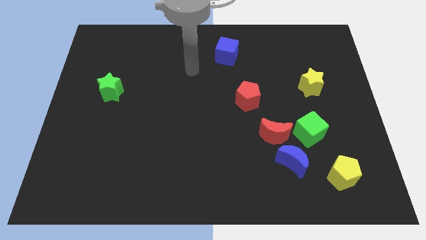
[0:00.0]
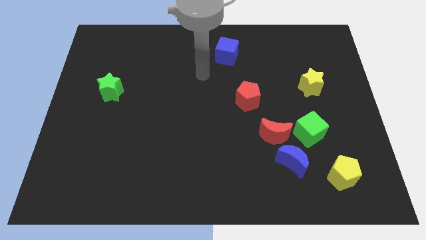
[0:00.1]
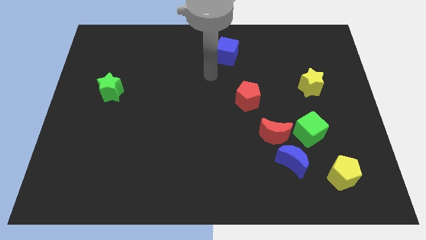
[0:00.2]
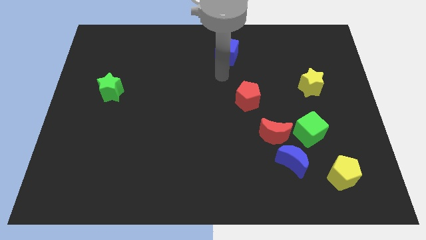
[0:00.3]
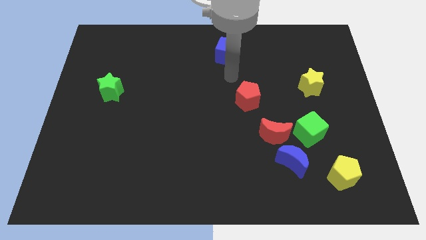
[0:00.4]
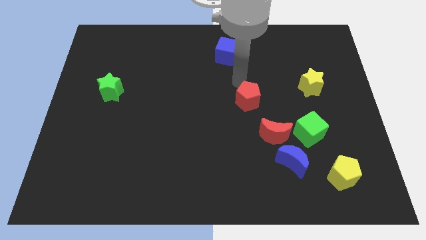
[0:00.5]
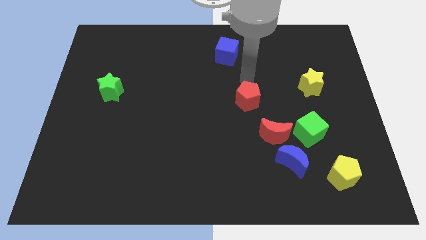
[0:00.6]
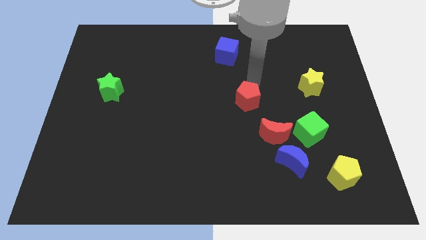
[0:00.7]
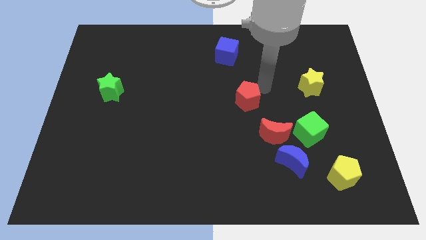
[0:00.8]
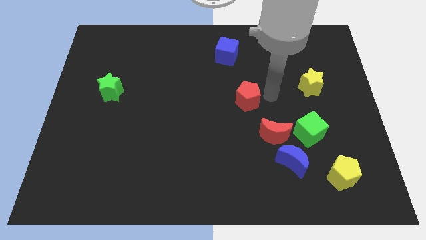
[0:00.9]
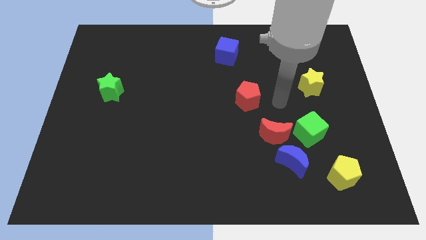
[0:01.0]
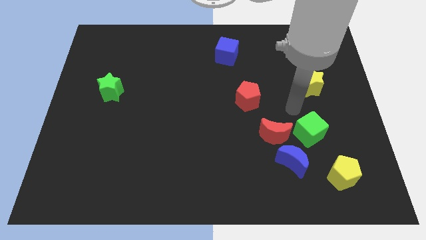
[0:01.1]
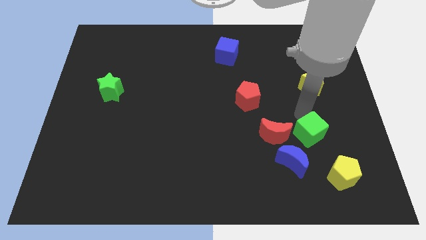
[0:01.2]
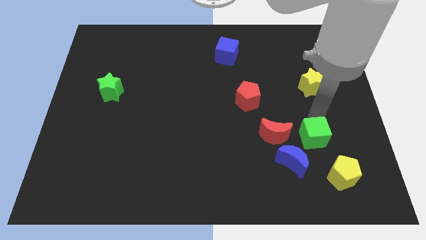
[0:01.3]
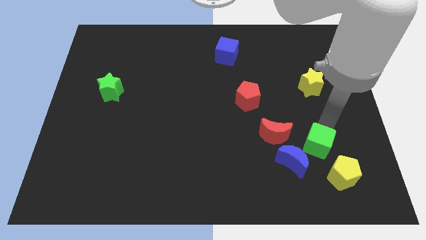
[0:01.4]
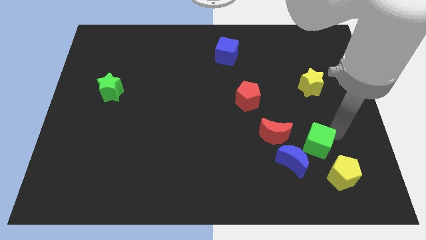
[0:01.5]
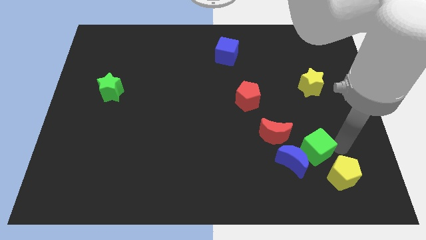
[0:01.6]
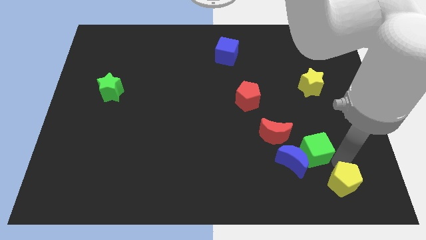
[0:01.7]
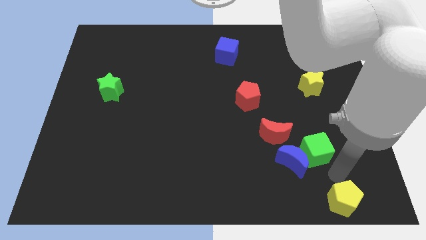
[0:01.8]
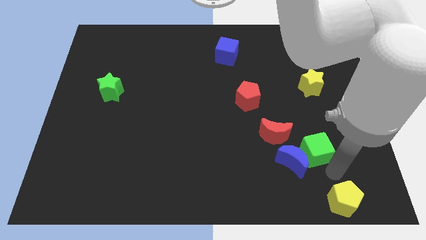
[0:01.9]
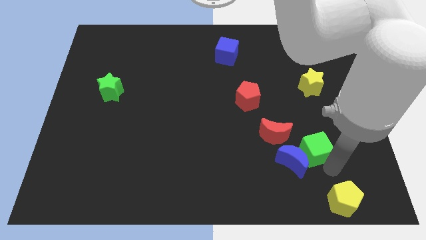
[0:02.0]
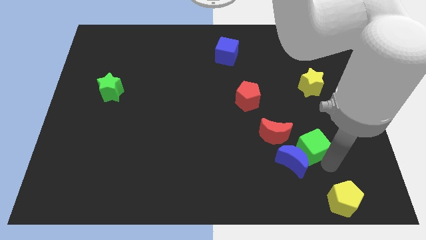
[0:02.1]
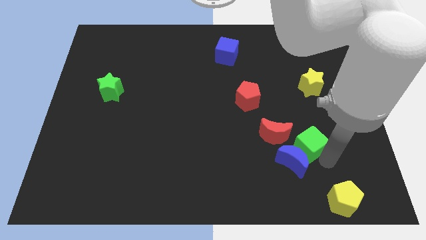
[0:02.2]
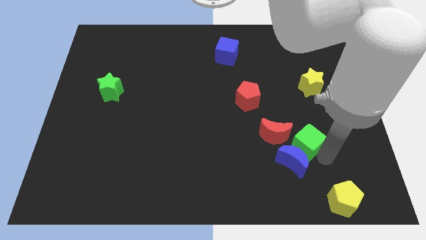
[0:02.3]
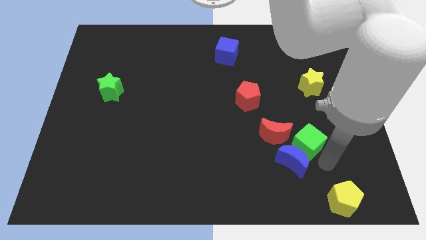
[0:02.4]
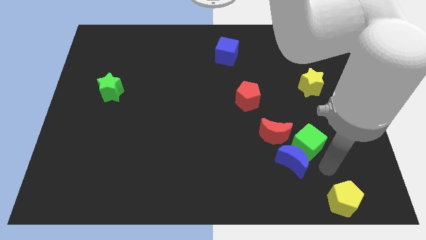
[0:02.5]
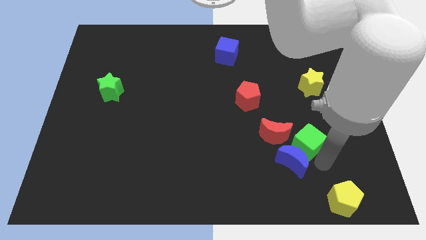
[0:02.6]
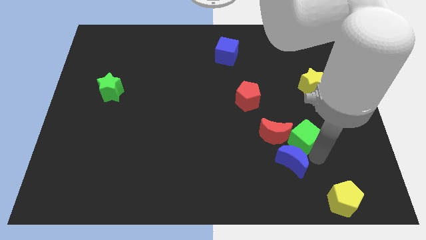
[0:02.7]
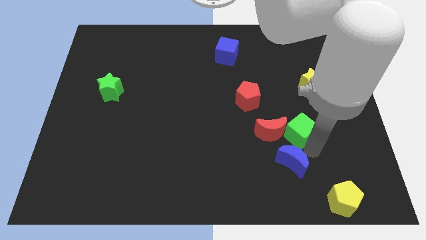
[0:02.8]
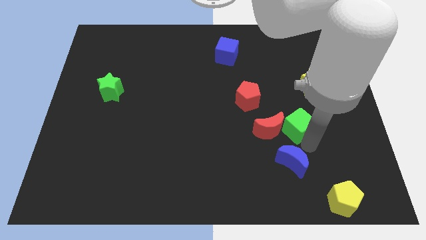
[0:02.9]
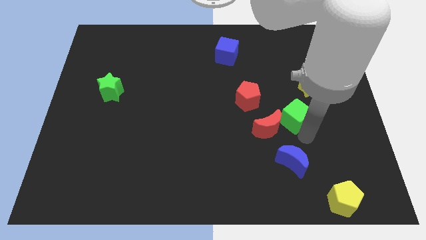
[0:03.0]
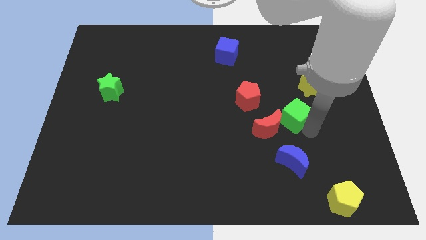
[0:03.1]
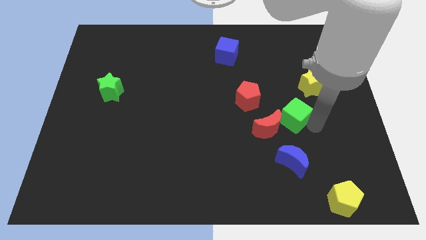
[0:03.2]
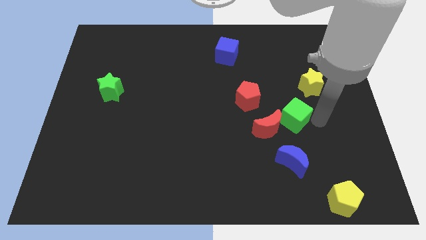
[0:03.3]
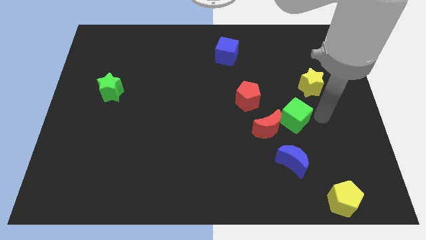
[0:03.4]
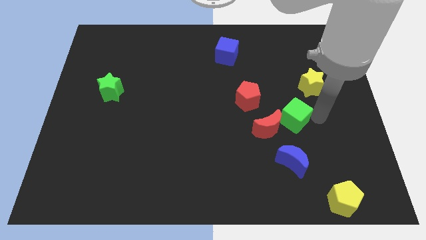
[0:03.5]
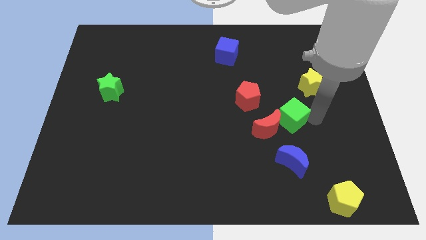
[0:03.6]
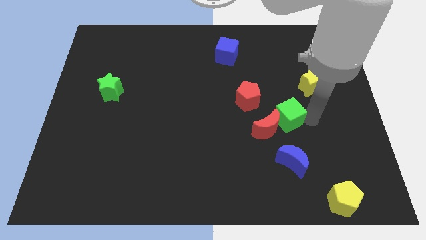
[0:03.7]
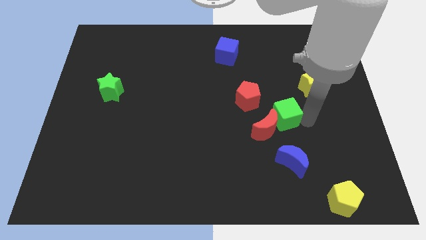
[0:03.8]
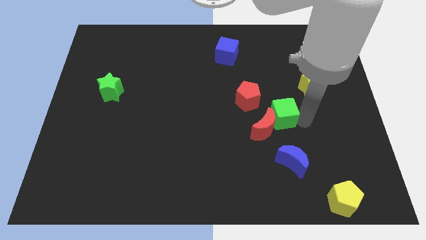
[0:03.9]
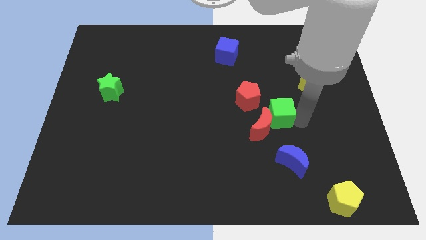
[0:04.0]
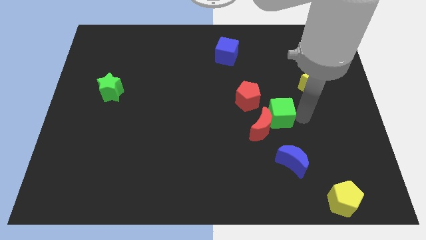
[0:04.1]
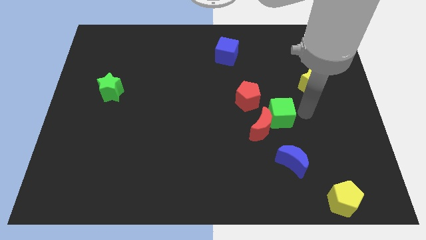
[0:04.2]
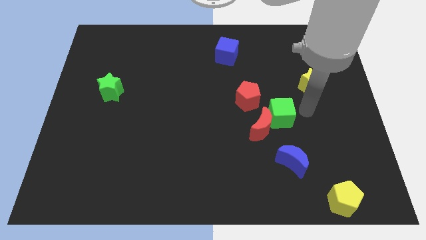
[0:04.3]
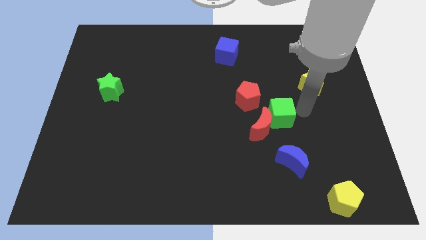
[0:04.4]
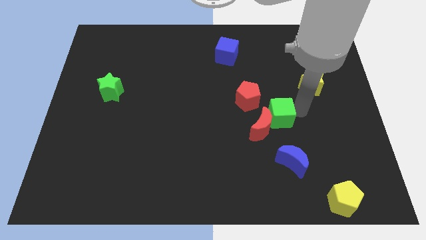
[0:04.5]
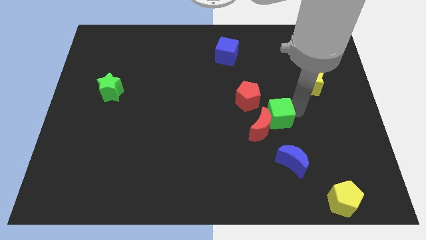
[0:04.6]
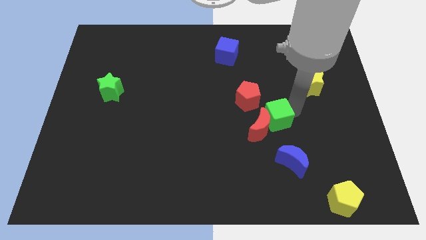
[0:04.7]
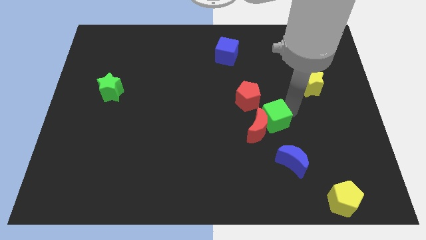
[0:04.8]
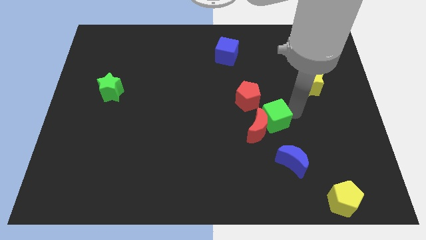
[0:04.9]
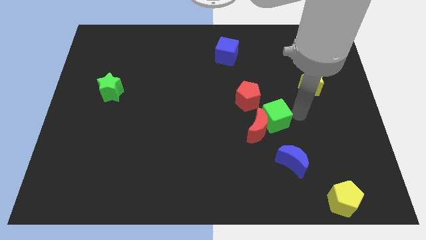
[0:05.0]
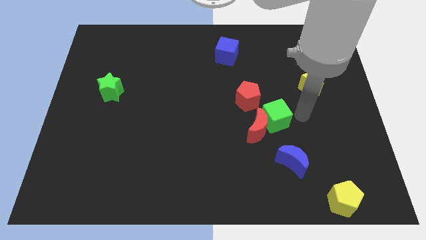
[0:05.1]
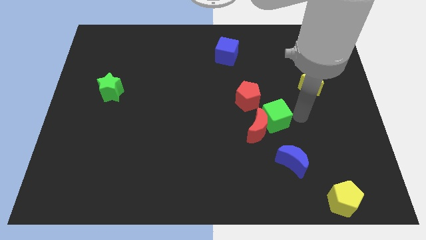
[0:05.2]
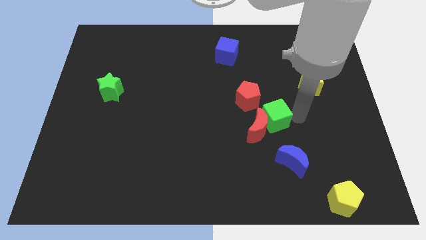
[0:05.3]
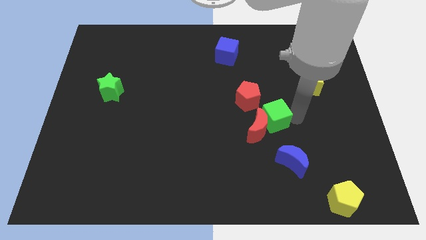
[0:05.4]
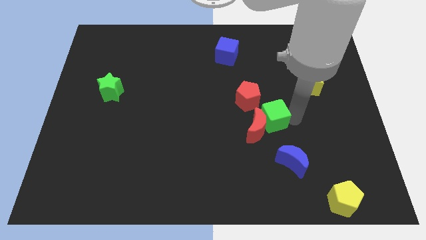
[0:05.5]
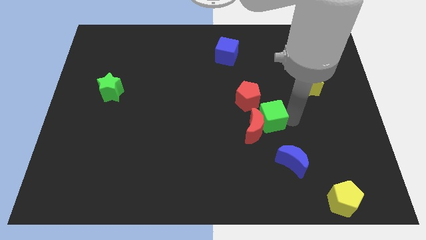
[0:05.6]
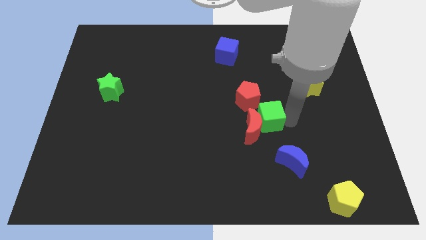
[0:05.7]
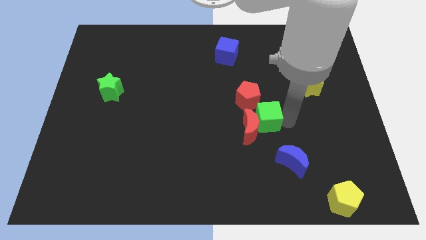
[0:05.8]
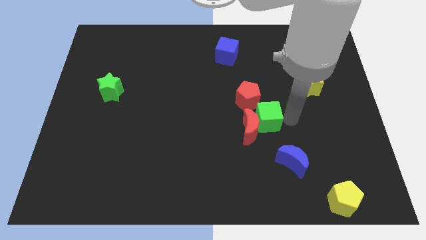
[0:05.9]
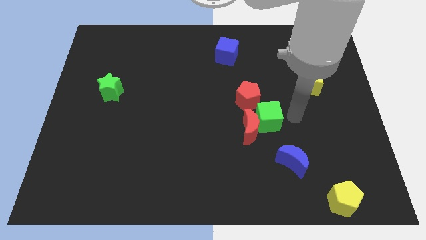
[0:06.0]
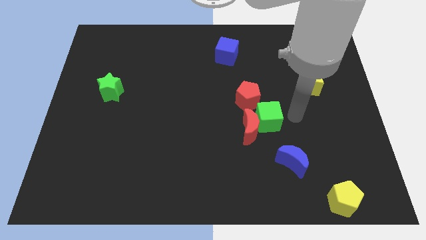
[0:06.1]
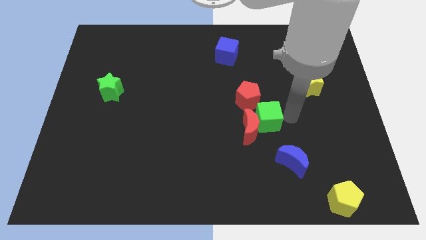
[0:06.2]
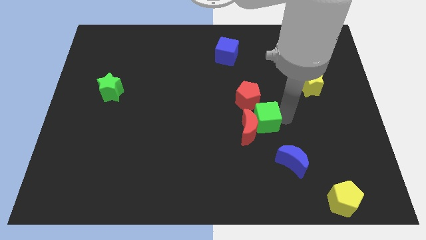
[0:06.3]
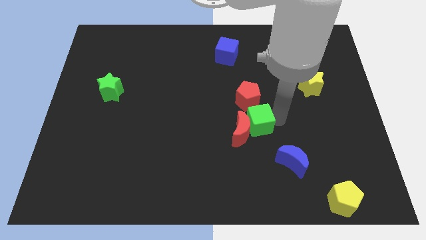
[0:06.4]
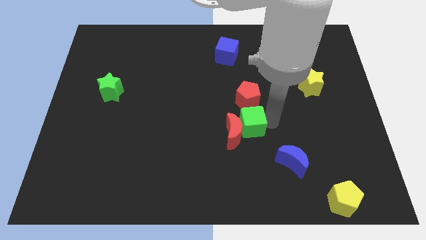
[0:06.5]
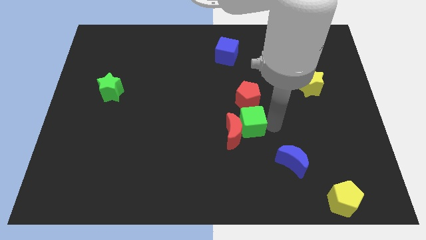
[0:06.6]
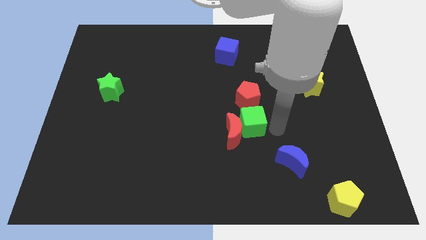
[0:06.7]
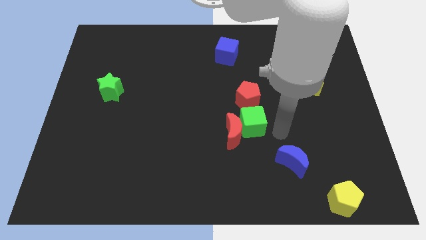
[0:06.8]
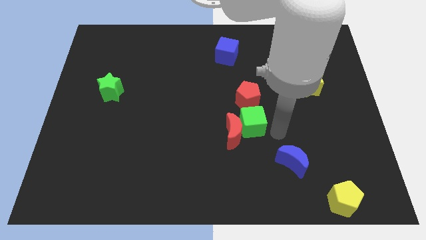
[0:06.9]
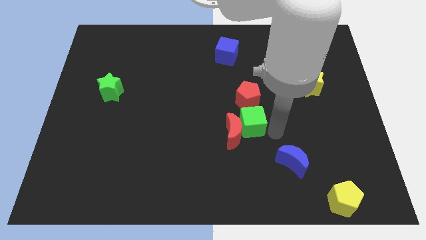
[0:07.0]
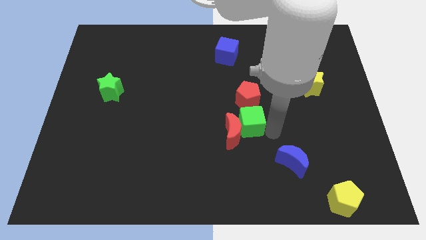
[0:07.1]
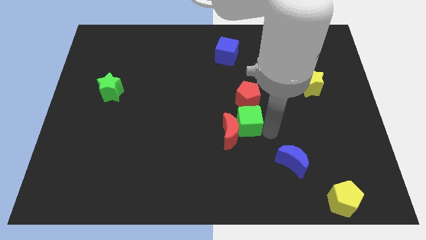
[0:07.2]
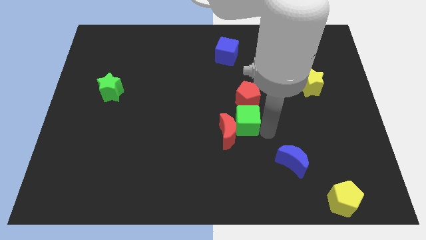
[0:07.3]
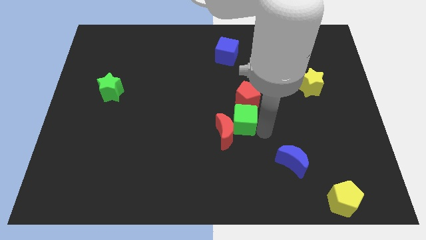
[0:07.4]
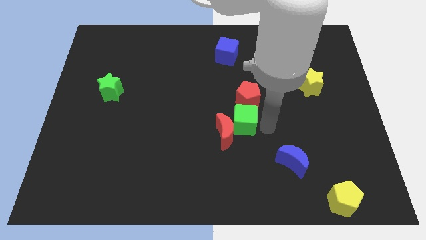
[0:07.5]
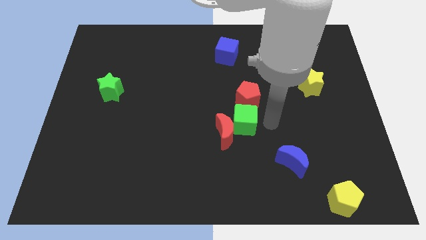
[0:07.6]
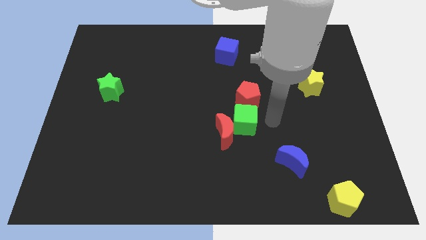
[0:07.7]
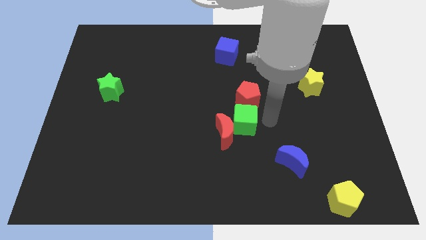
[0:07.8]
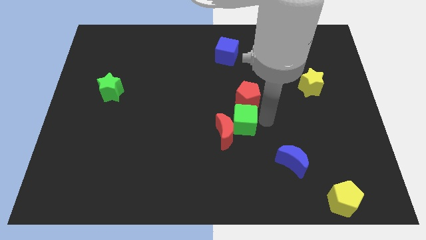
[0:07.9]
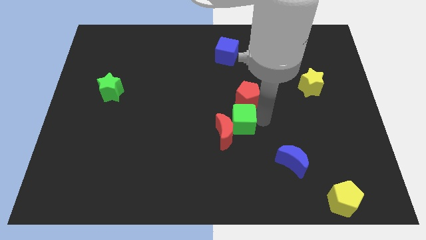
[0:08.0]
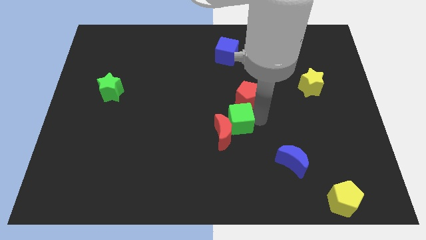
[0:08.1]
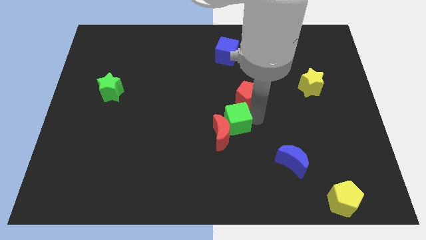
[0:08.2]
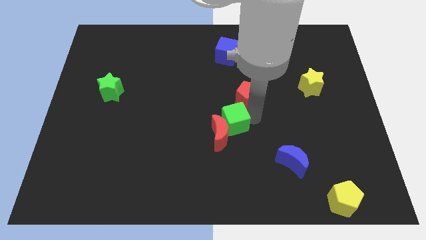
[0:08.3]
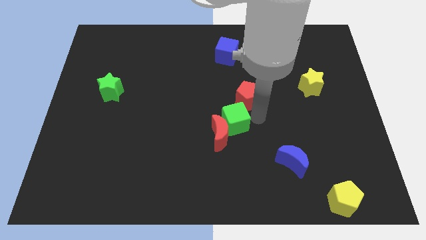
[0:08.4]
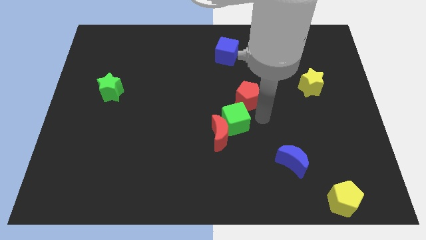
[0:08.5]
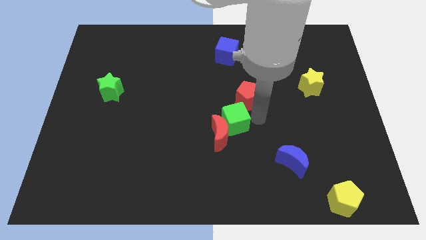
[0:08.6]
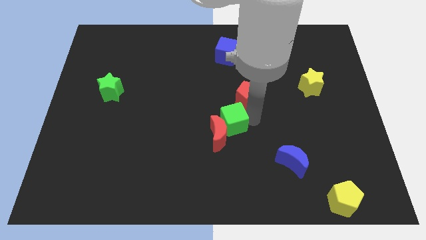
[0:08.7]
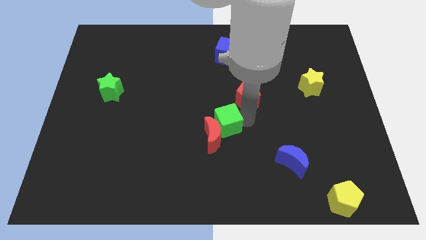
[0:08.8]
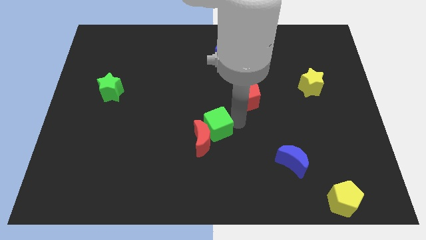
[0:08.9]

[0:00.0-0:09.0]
slide the green cube to the left
